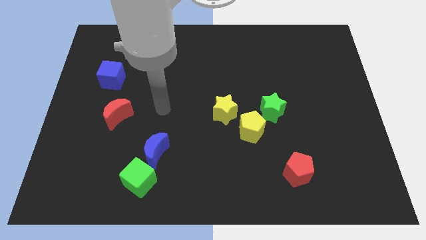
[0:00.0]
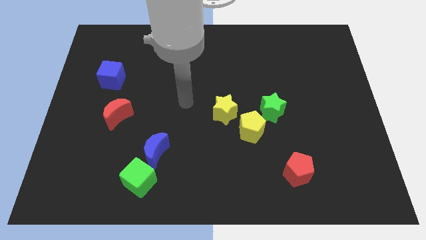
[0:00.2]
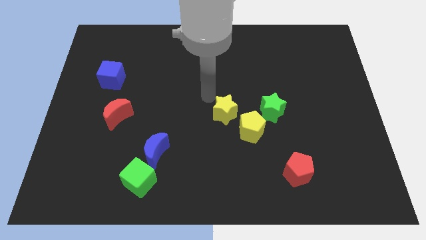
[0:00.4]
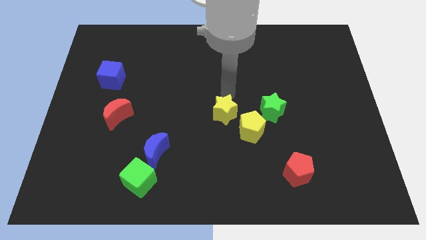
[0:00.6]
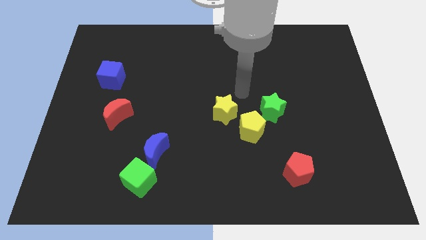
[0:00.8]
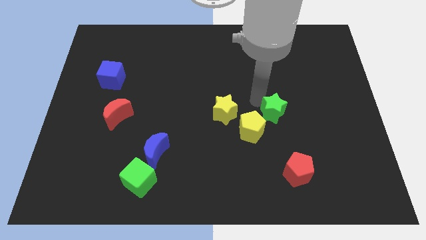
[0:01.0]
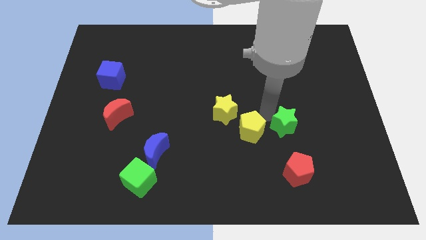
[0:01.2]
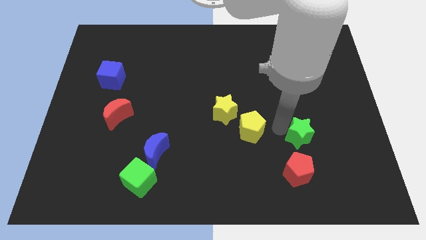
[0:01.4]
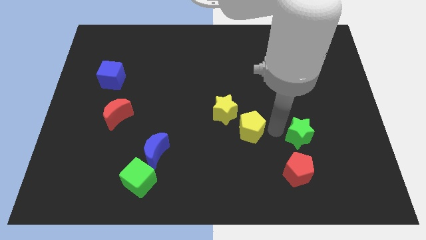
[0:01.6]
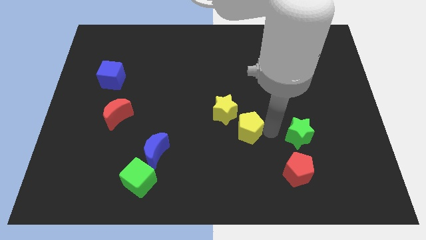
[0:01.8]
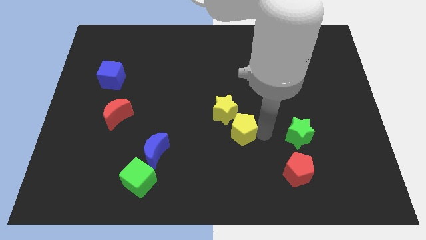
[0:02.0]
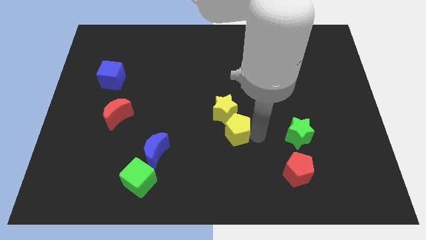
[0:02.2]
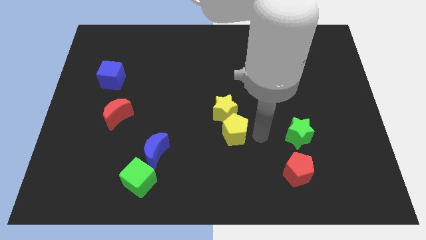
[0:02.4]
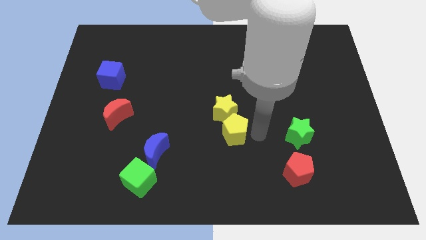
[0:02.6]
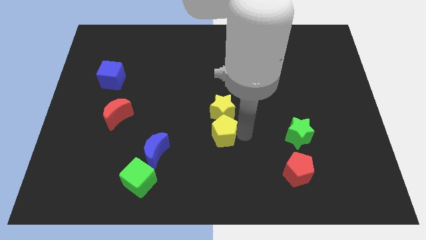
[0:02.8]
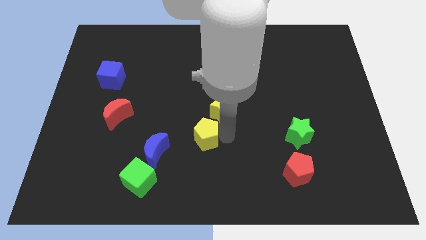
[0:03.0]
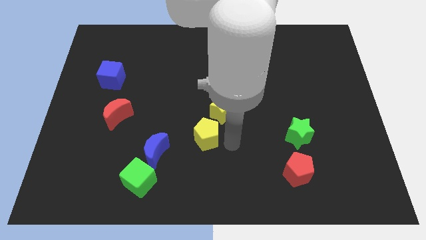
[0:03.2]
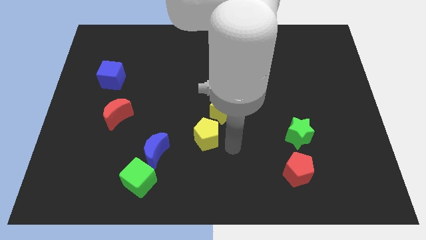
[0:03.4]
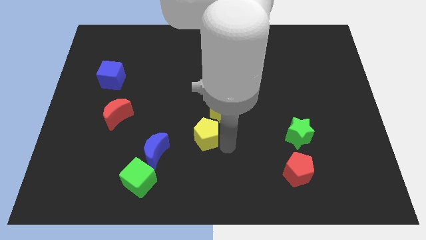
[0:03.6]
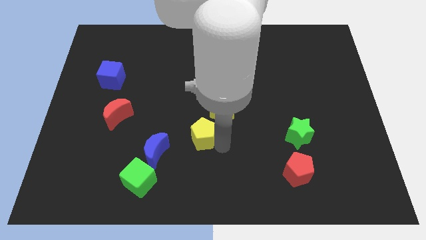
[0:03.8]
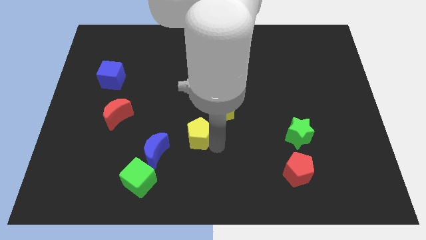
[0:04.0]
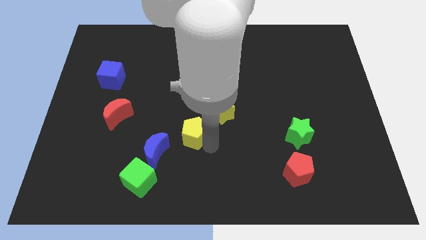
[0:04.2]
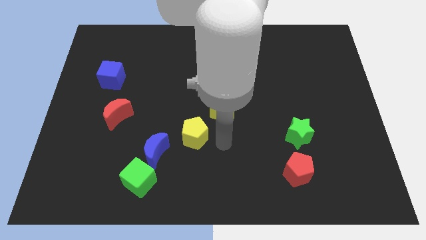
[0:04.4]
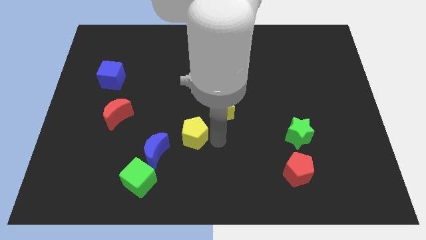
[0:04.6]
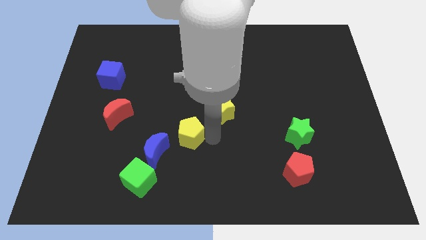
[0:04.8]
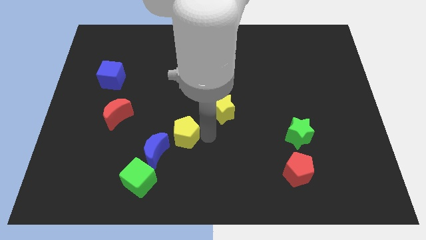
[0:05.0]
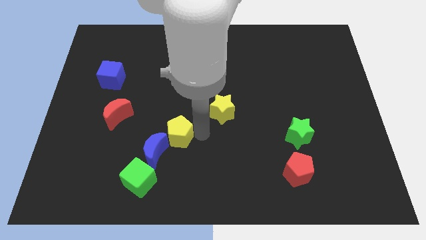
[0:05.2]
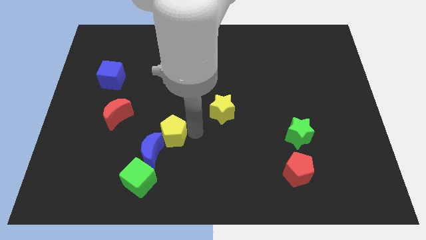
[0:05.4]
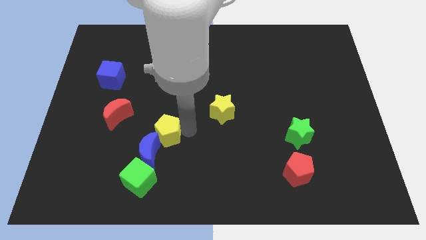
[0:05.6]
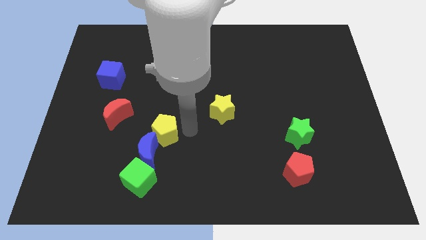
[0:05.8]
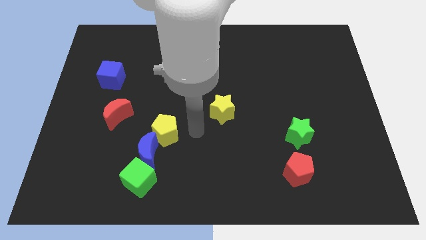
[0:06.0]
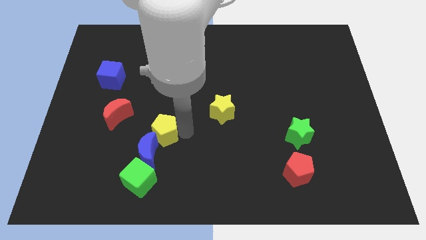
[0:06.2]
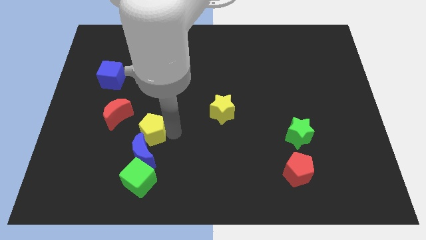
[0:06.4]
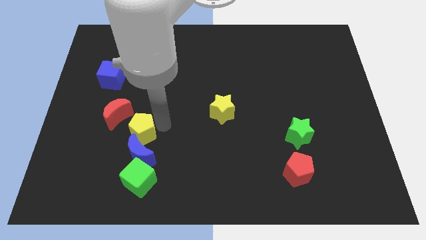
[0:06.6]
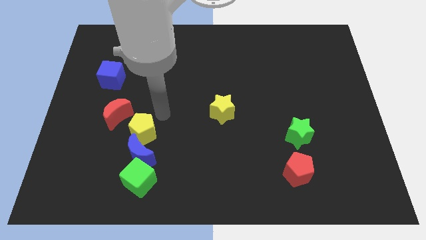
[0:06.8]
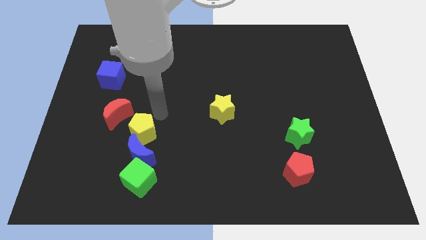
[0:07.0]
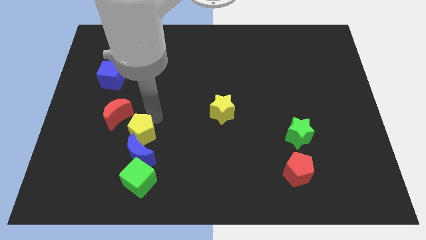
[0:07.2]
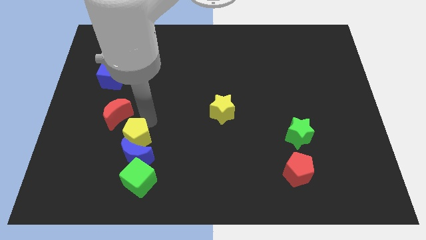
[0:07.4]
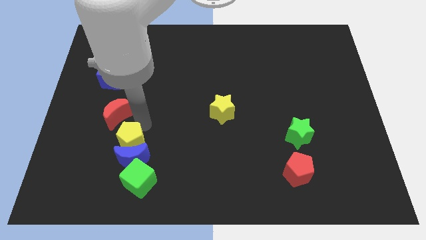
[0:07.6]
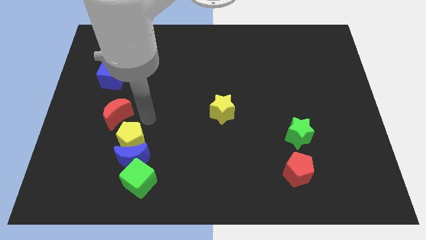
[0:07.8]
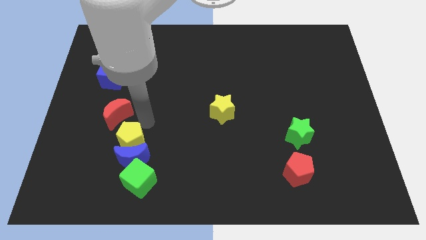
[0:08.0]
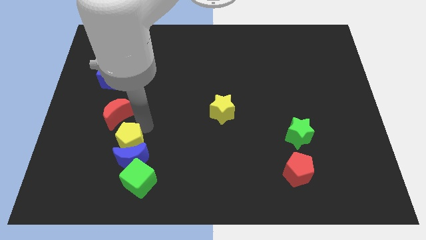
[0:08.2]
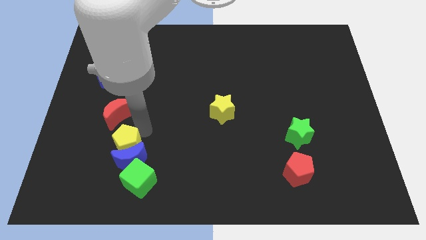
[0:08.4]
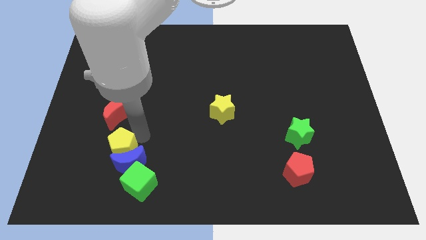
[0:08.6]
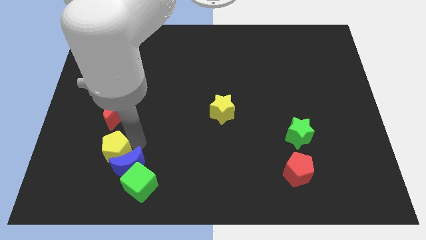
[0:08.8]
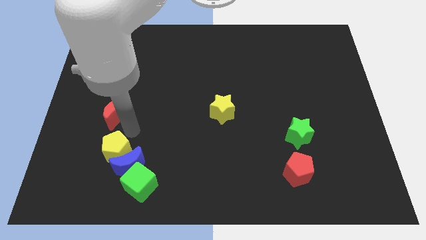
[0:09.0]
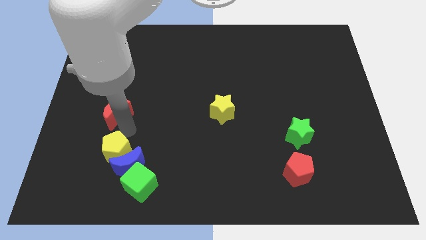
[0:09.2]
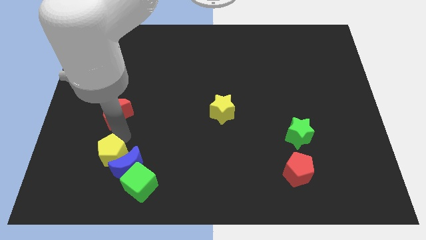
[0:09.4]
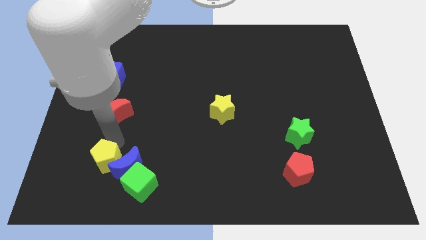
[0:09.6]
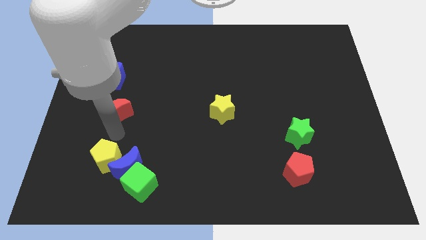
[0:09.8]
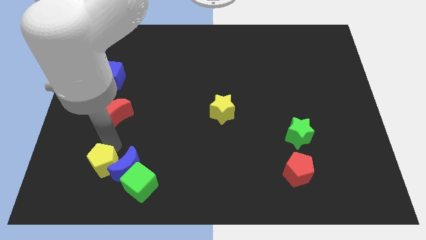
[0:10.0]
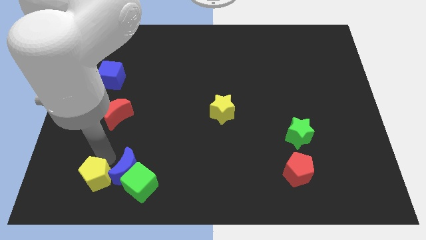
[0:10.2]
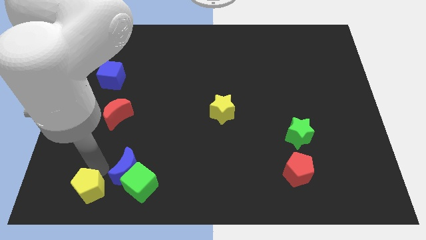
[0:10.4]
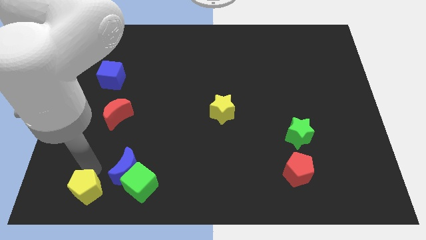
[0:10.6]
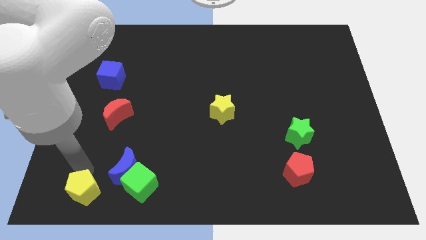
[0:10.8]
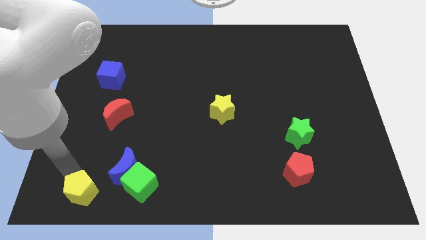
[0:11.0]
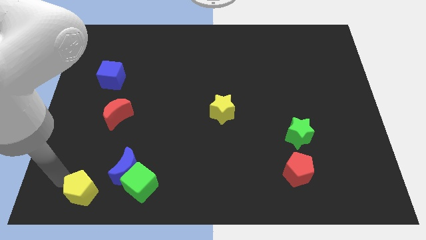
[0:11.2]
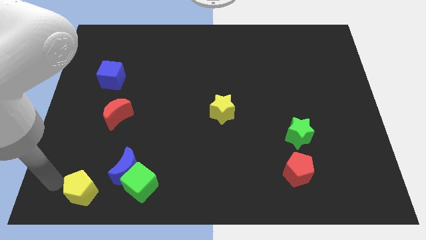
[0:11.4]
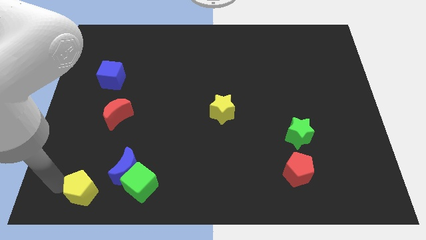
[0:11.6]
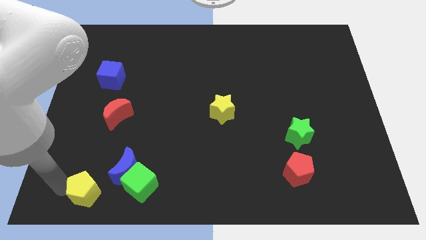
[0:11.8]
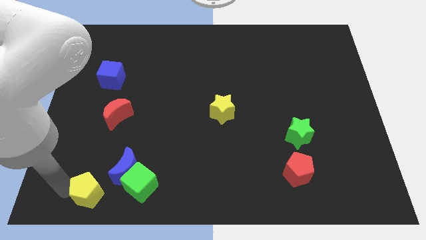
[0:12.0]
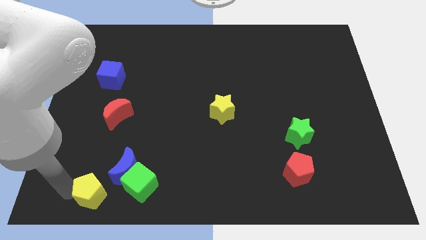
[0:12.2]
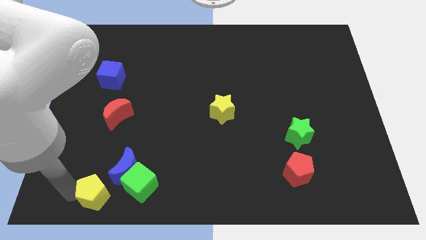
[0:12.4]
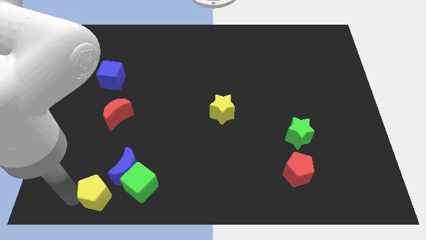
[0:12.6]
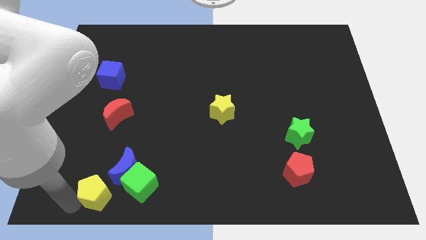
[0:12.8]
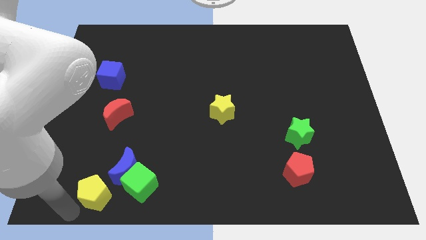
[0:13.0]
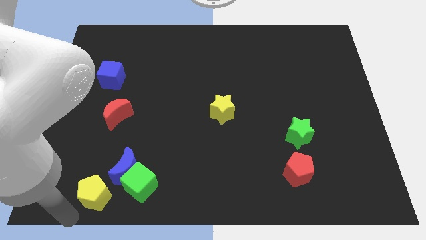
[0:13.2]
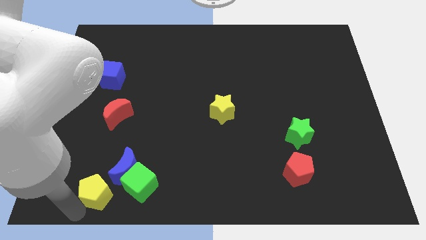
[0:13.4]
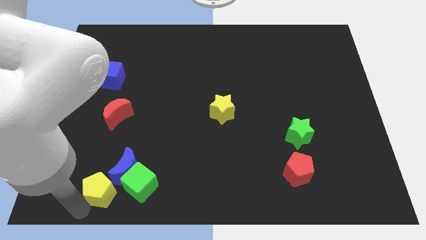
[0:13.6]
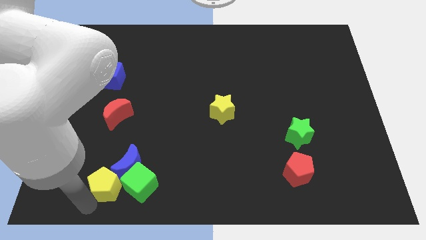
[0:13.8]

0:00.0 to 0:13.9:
push the yellow pentagon to the bottom left side of the blue moon

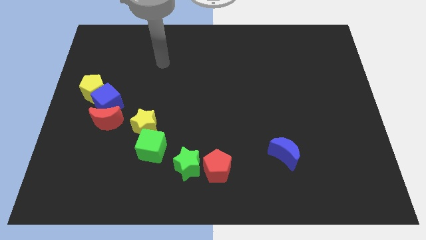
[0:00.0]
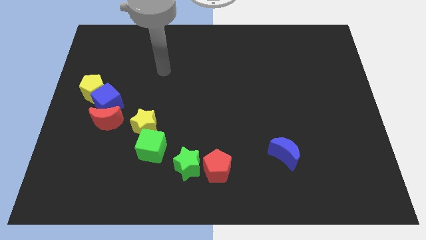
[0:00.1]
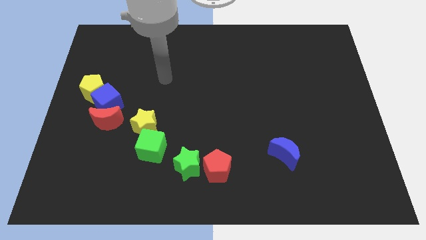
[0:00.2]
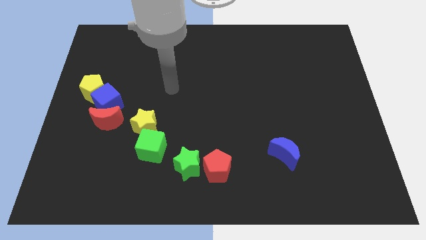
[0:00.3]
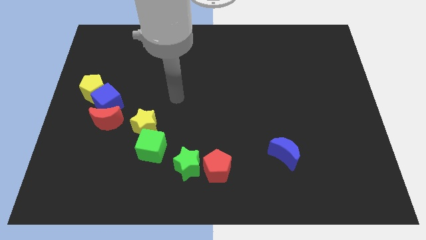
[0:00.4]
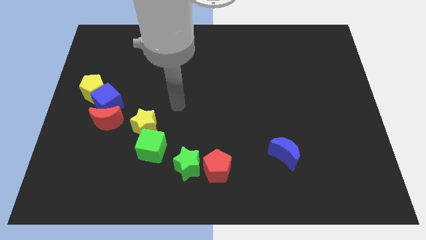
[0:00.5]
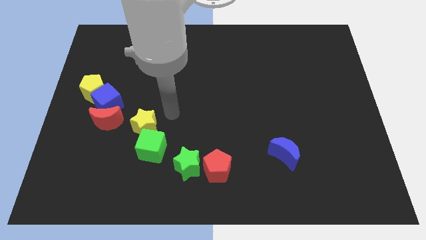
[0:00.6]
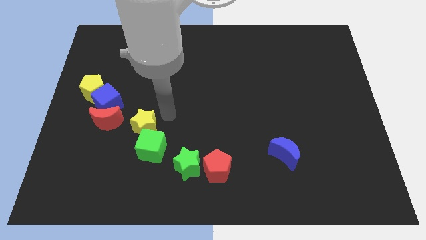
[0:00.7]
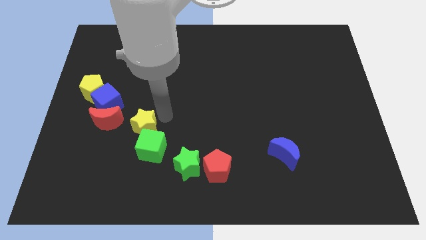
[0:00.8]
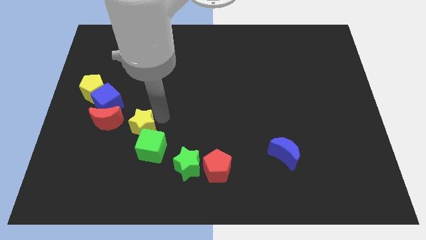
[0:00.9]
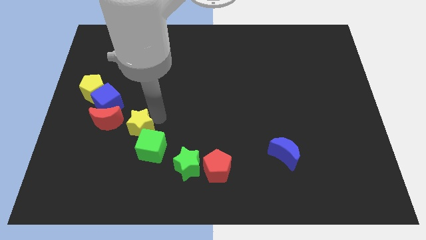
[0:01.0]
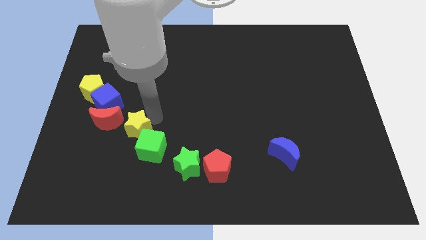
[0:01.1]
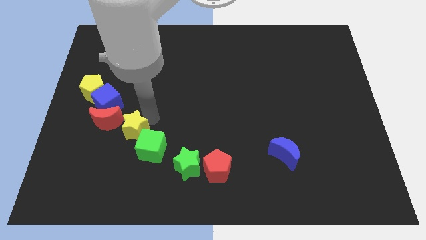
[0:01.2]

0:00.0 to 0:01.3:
put the yellow star to the left of the green cube
